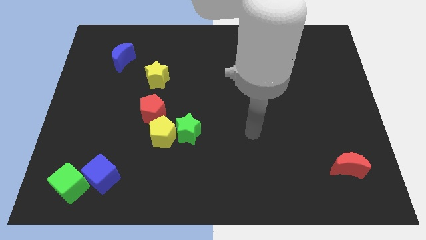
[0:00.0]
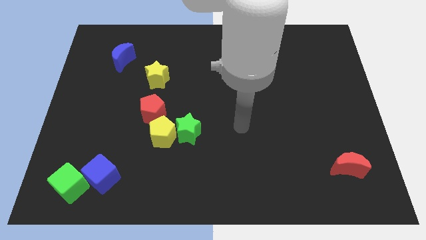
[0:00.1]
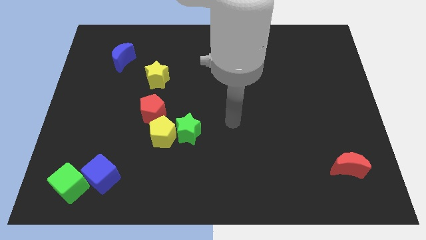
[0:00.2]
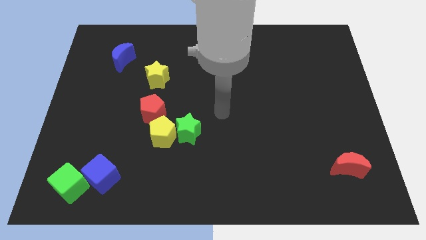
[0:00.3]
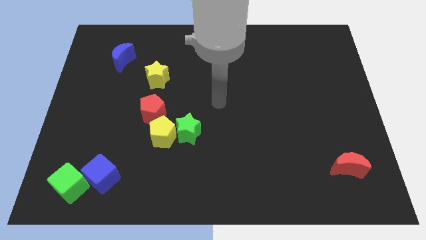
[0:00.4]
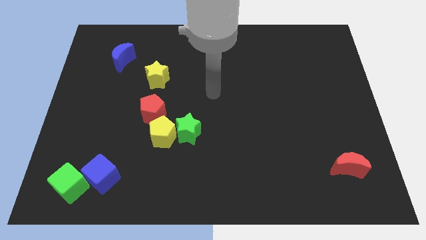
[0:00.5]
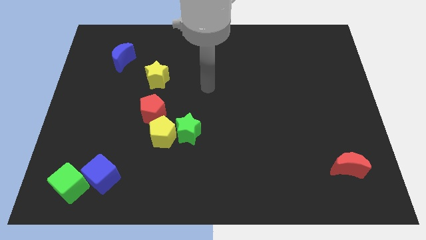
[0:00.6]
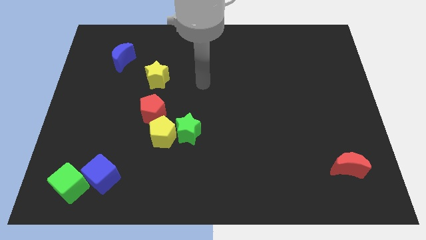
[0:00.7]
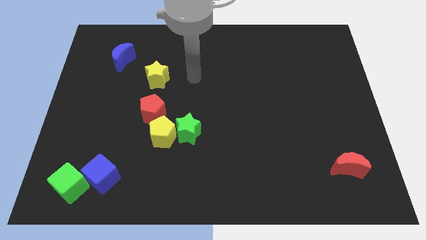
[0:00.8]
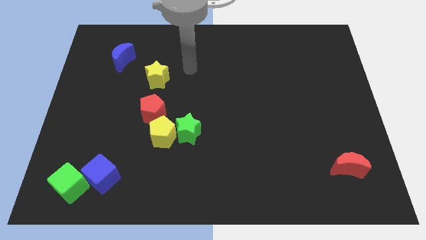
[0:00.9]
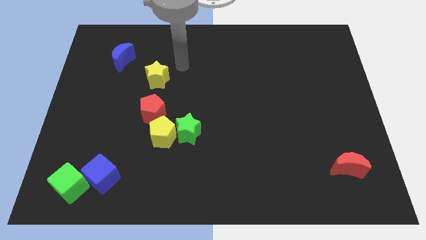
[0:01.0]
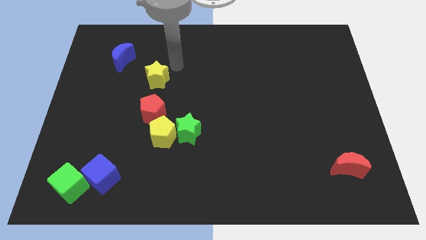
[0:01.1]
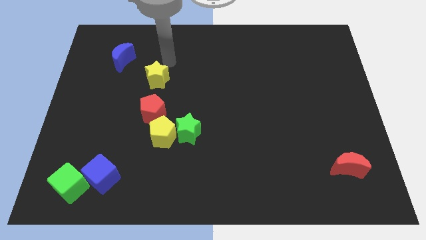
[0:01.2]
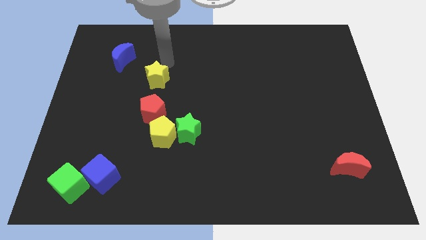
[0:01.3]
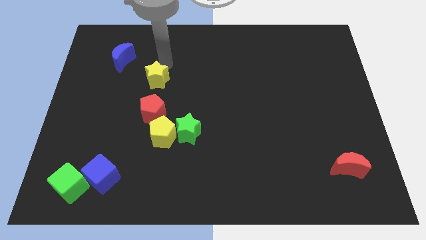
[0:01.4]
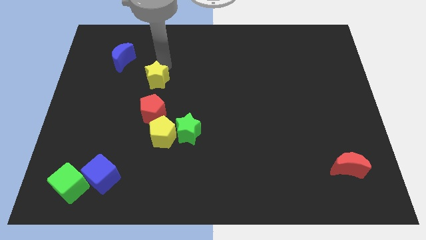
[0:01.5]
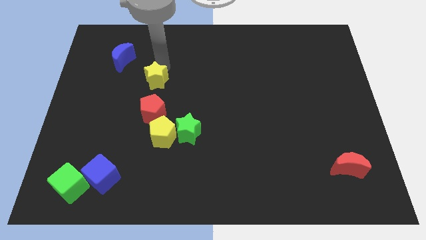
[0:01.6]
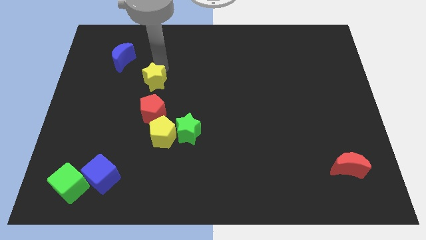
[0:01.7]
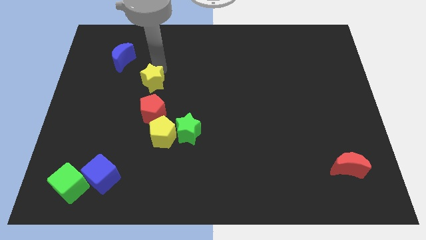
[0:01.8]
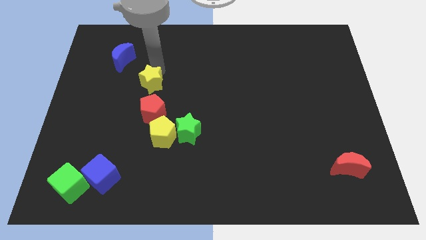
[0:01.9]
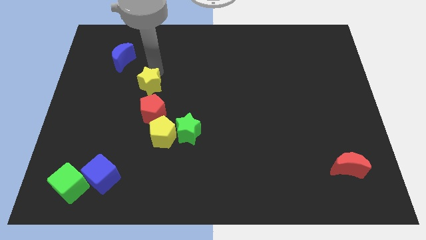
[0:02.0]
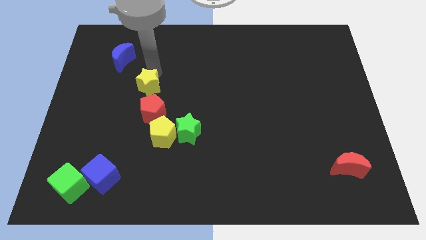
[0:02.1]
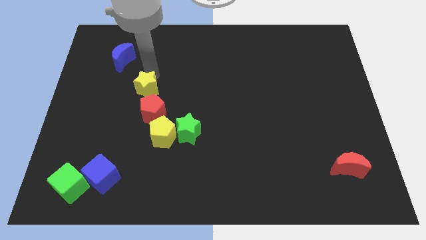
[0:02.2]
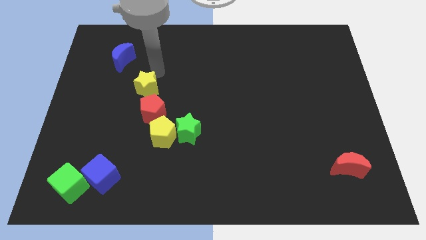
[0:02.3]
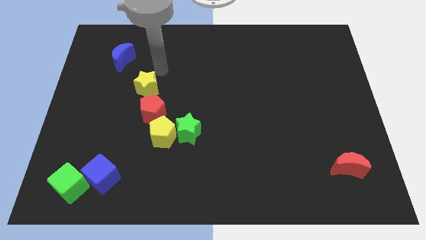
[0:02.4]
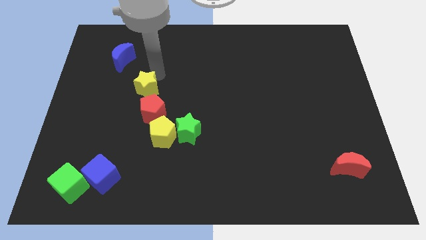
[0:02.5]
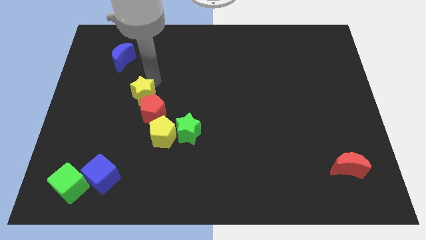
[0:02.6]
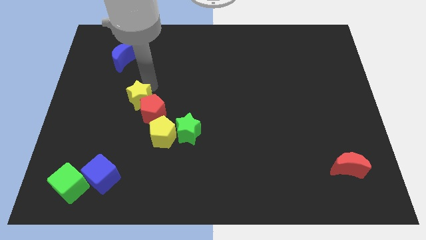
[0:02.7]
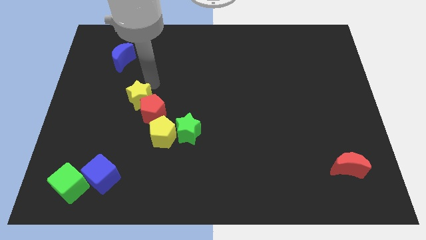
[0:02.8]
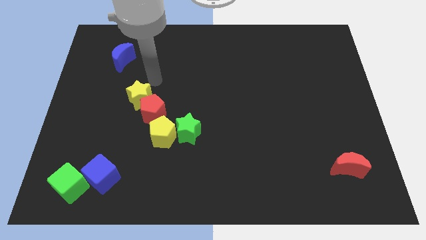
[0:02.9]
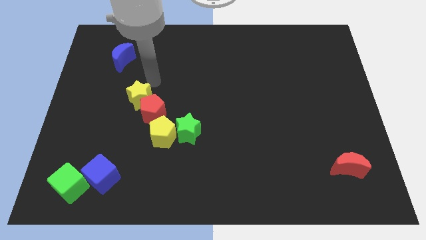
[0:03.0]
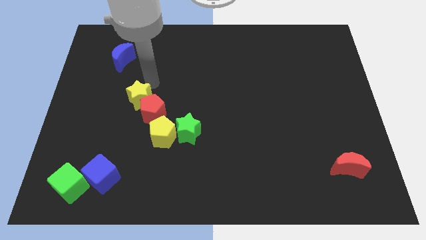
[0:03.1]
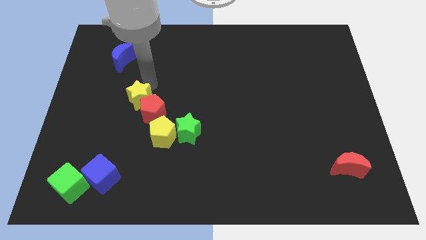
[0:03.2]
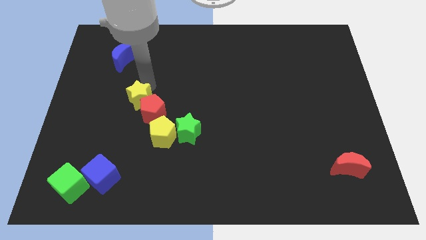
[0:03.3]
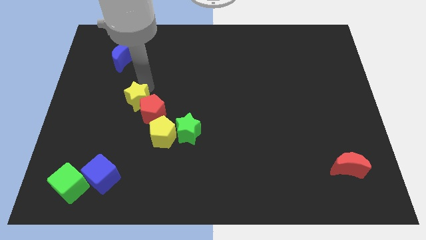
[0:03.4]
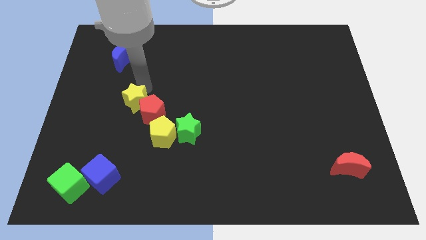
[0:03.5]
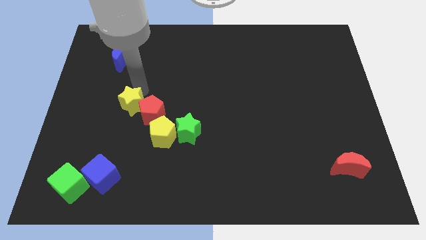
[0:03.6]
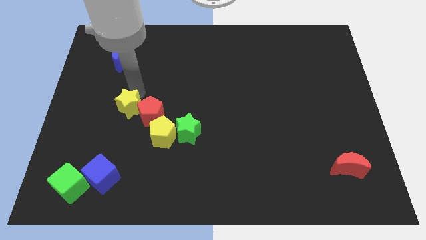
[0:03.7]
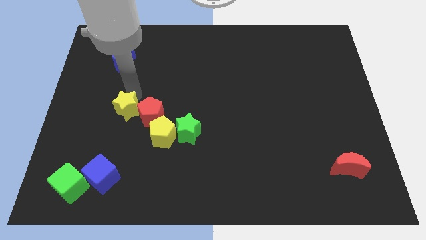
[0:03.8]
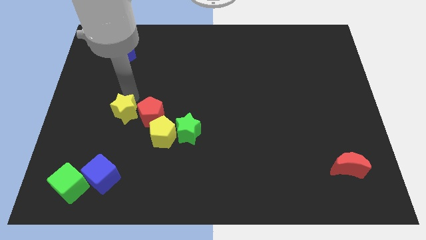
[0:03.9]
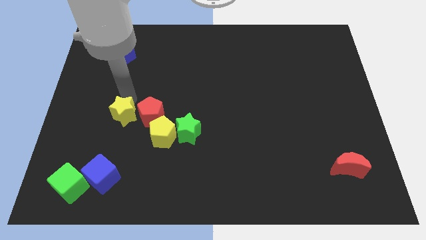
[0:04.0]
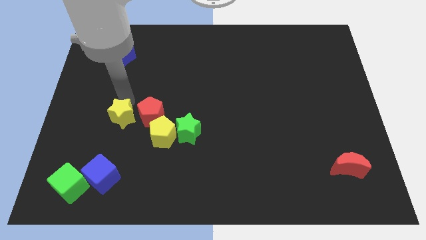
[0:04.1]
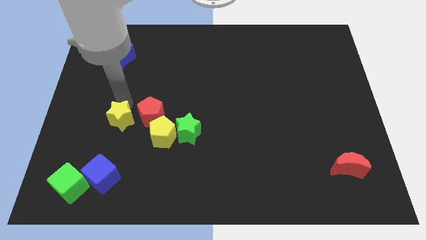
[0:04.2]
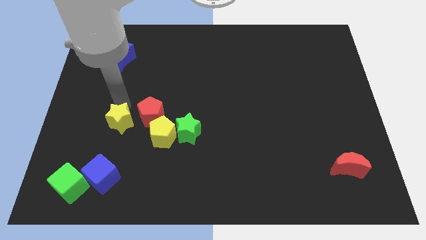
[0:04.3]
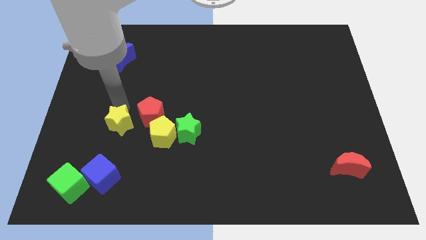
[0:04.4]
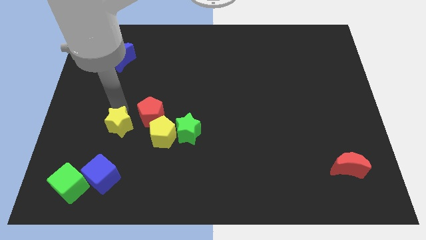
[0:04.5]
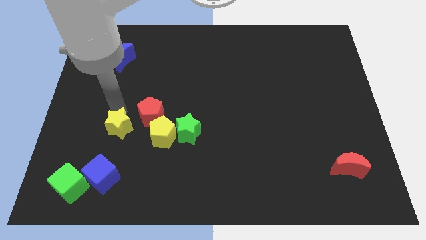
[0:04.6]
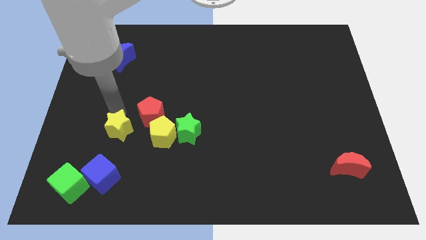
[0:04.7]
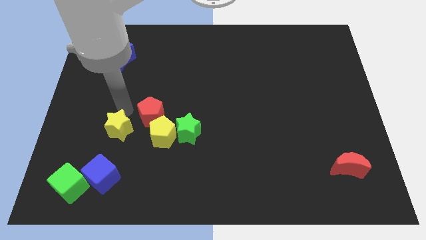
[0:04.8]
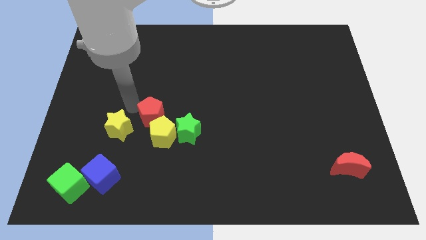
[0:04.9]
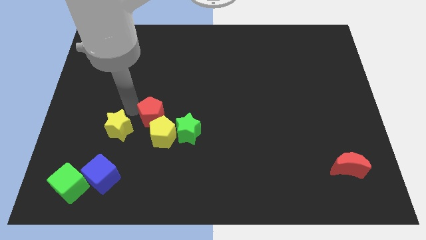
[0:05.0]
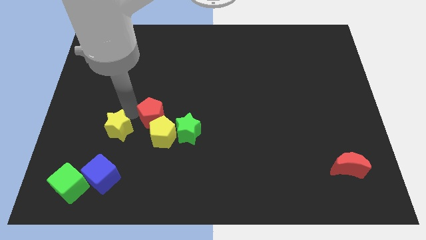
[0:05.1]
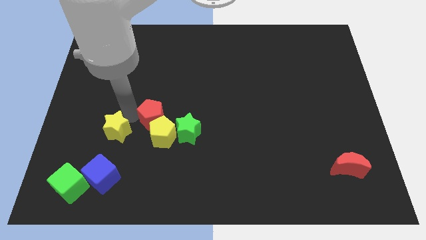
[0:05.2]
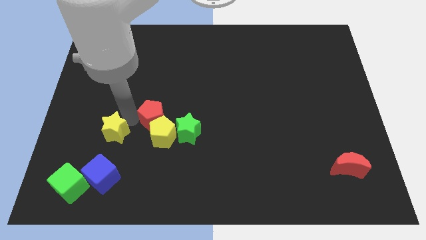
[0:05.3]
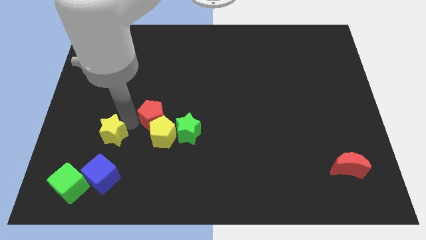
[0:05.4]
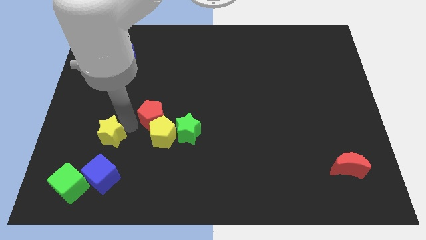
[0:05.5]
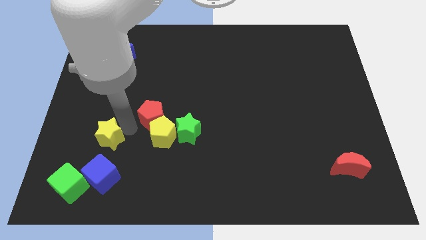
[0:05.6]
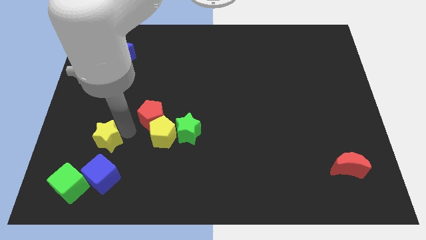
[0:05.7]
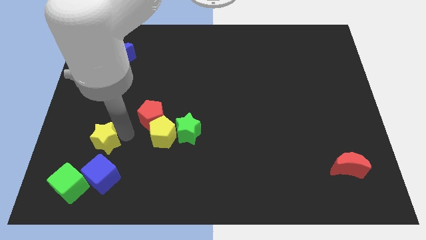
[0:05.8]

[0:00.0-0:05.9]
slide the yellow star to the top right of the green cube

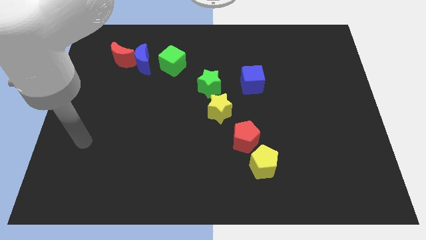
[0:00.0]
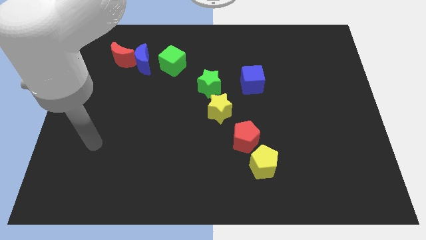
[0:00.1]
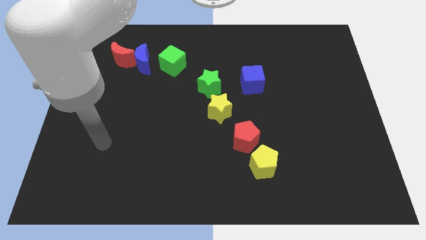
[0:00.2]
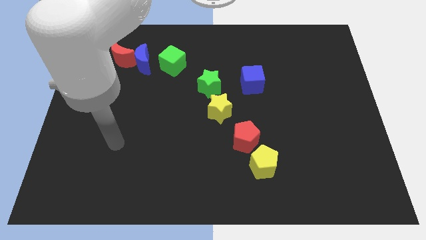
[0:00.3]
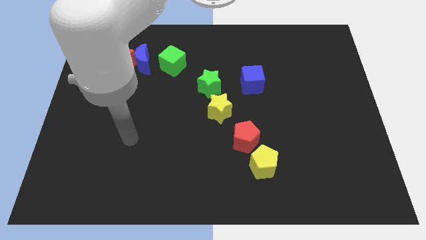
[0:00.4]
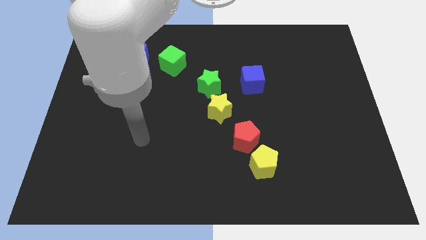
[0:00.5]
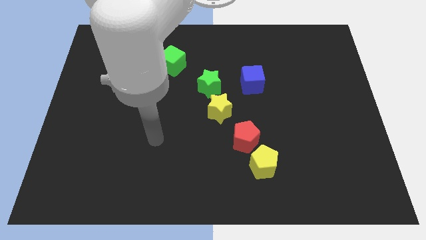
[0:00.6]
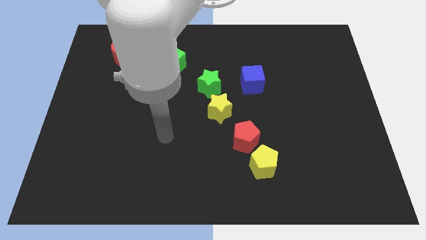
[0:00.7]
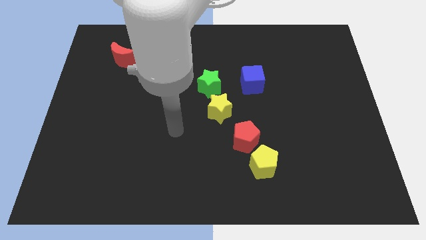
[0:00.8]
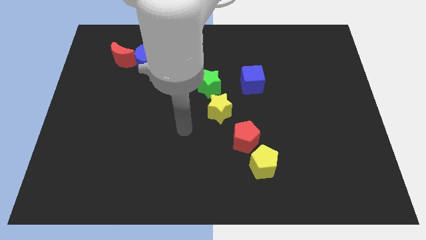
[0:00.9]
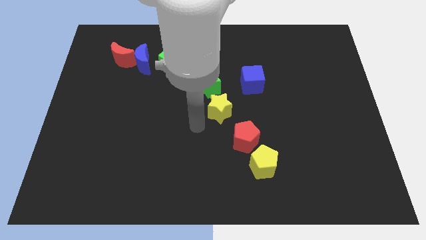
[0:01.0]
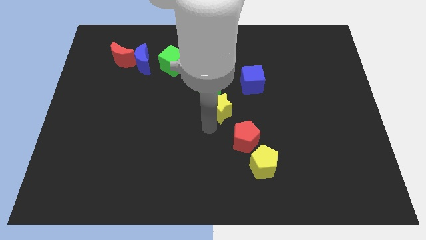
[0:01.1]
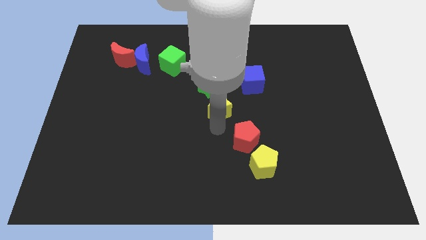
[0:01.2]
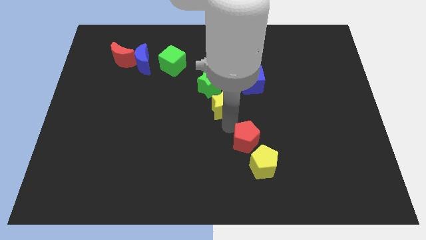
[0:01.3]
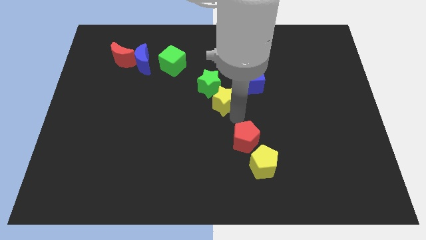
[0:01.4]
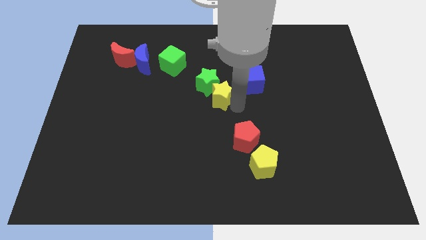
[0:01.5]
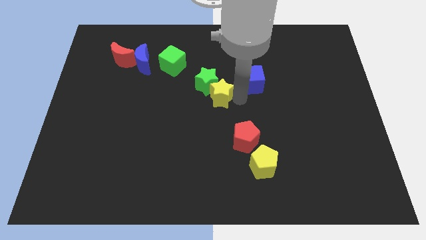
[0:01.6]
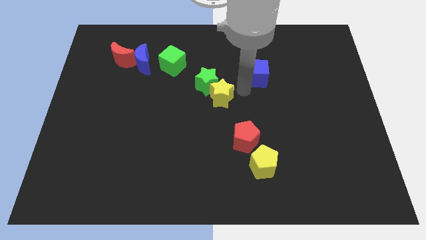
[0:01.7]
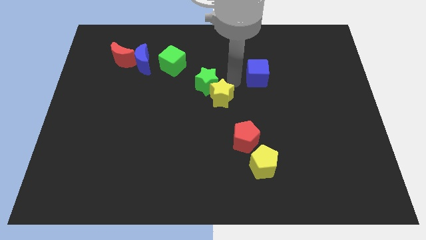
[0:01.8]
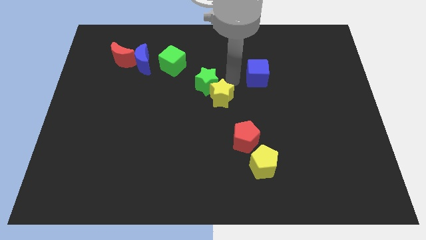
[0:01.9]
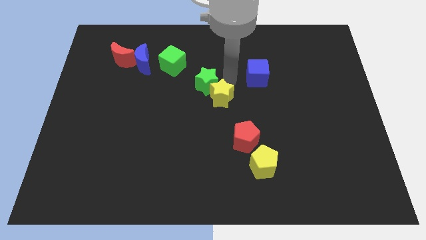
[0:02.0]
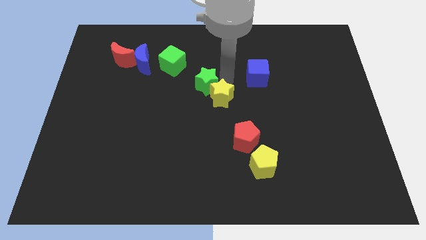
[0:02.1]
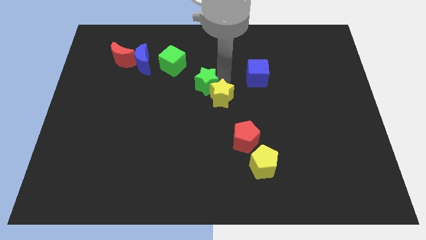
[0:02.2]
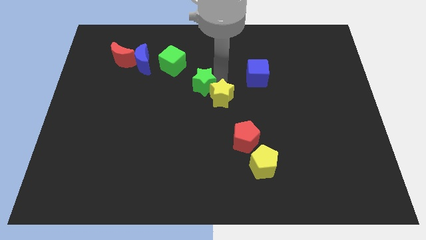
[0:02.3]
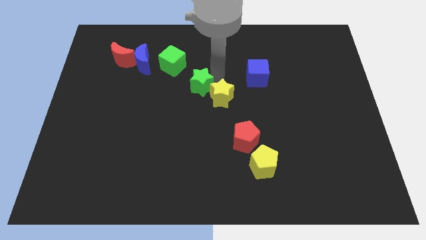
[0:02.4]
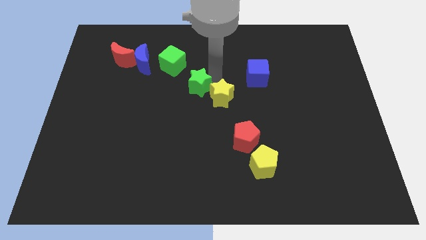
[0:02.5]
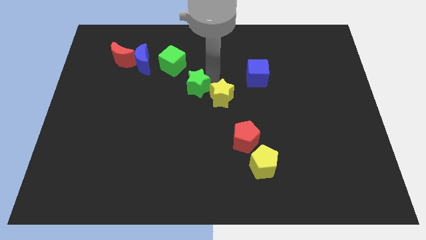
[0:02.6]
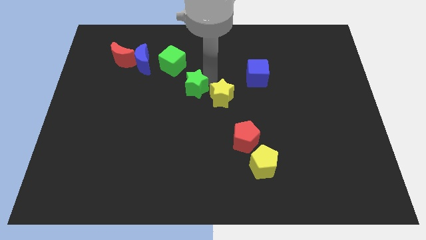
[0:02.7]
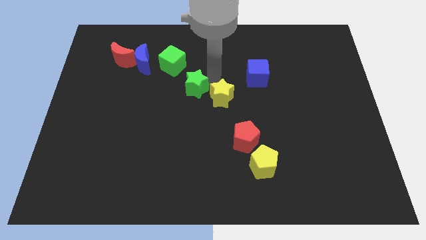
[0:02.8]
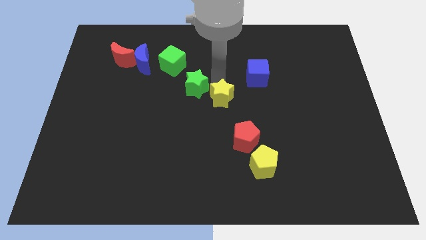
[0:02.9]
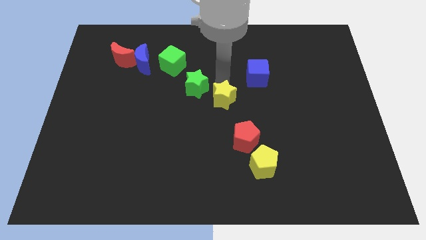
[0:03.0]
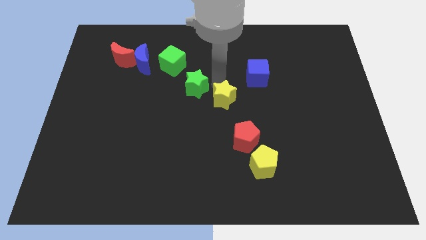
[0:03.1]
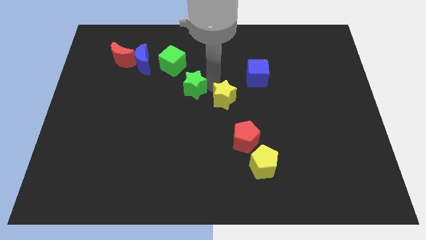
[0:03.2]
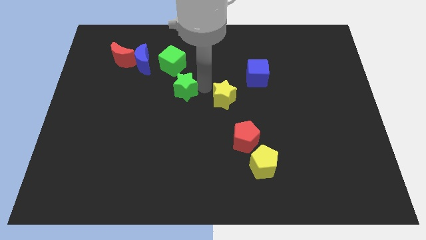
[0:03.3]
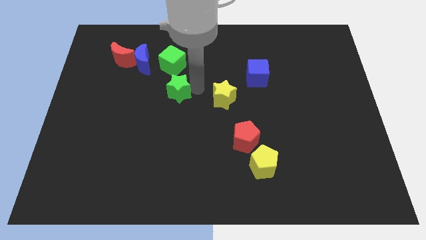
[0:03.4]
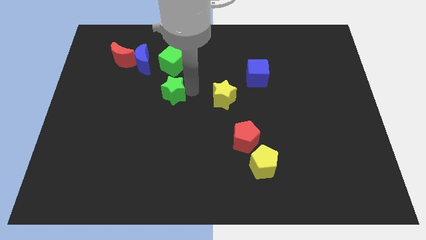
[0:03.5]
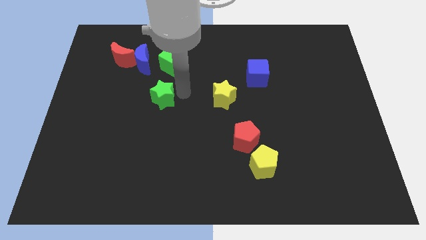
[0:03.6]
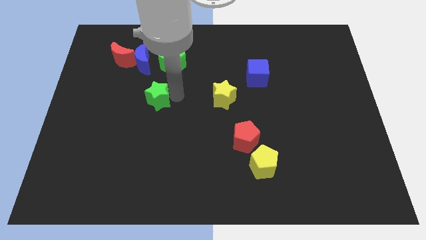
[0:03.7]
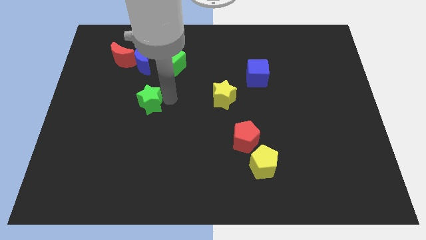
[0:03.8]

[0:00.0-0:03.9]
push the green star to the bottom of the blue moon
